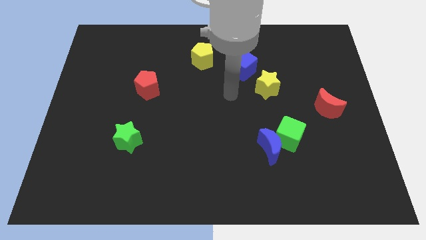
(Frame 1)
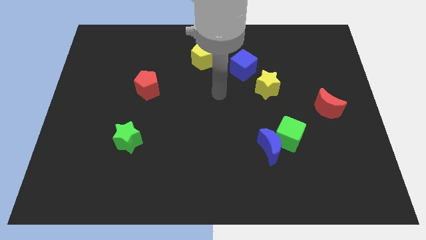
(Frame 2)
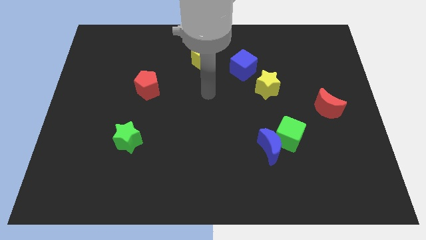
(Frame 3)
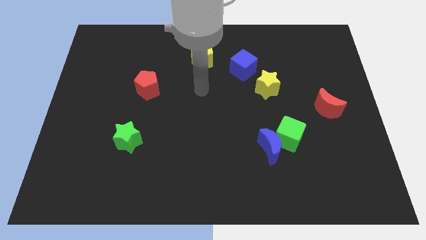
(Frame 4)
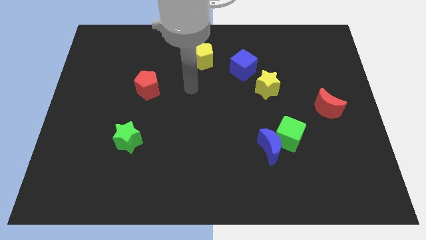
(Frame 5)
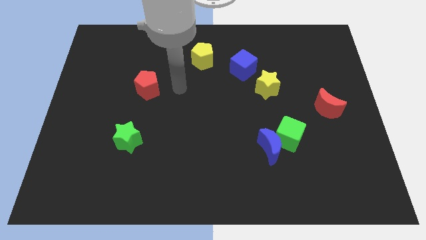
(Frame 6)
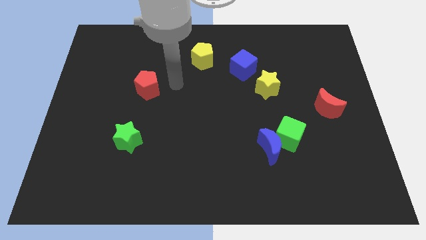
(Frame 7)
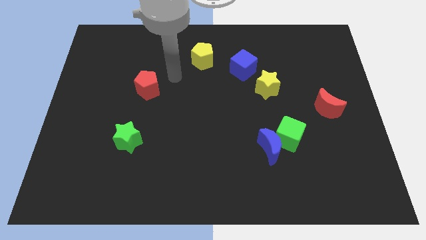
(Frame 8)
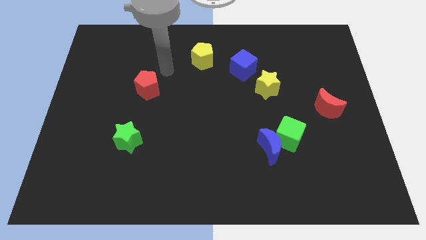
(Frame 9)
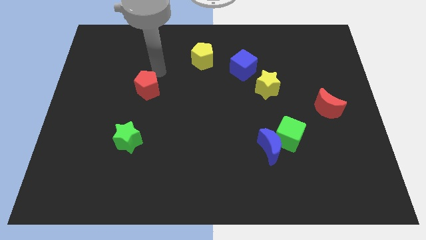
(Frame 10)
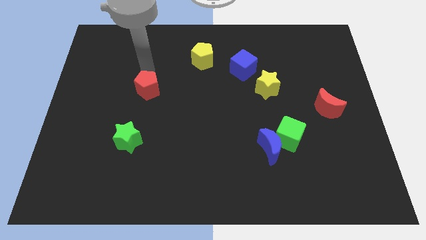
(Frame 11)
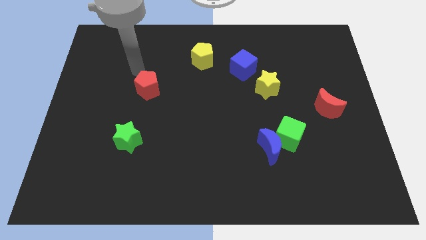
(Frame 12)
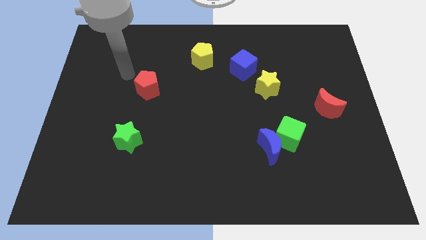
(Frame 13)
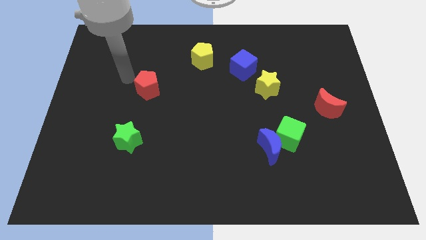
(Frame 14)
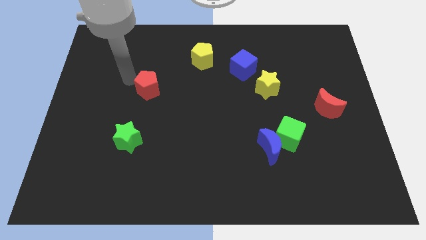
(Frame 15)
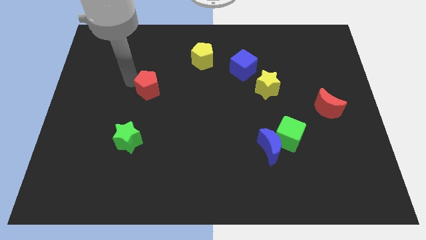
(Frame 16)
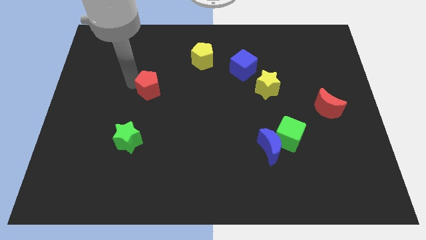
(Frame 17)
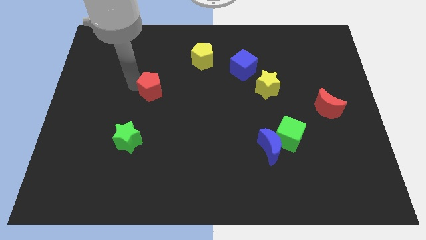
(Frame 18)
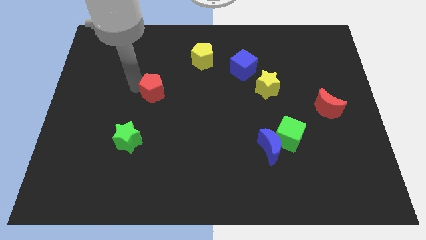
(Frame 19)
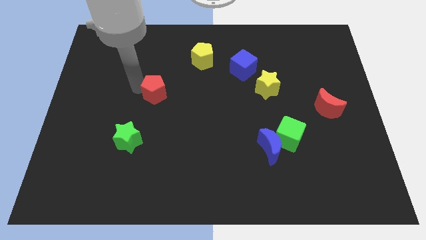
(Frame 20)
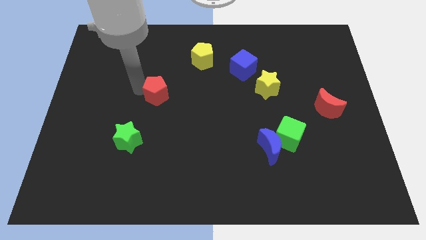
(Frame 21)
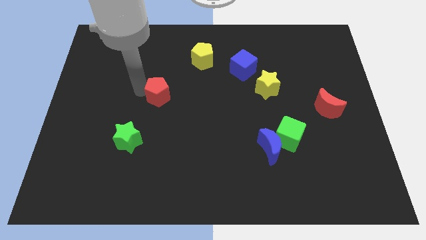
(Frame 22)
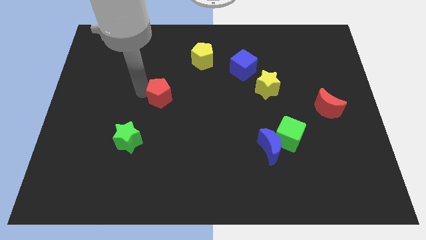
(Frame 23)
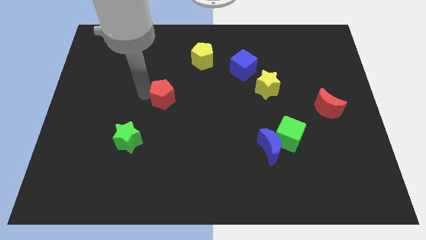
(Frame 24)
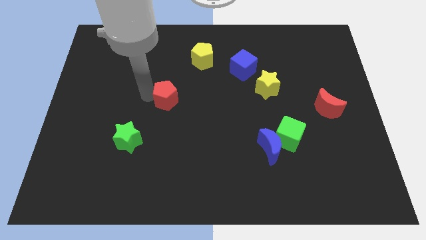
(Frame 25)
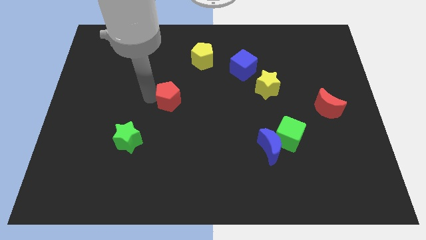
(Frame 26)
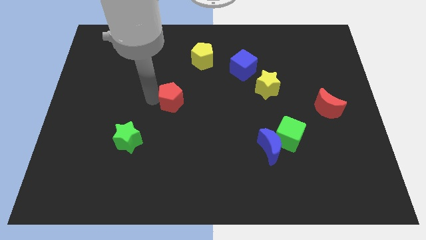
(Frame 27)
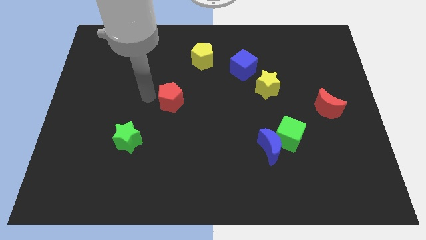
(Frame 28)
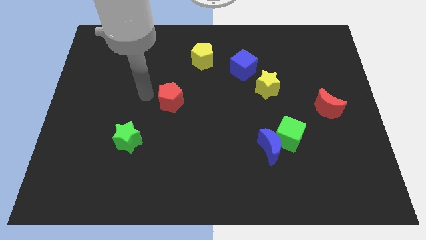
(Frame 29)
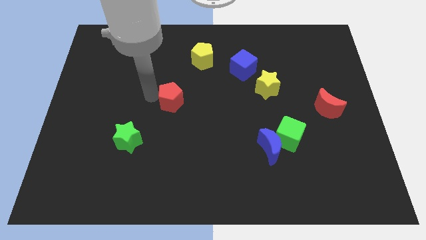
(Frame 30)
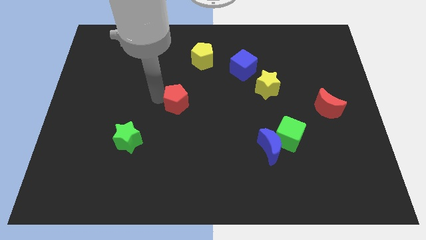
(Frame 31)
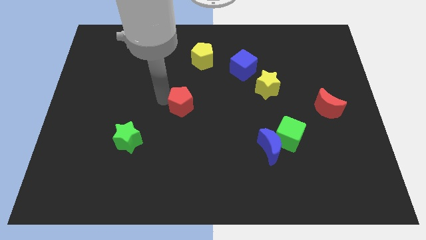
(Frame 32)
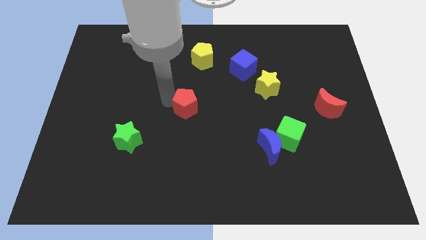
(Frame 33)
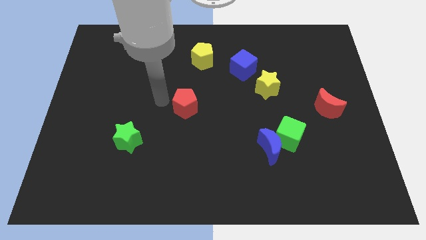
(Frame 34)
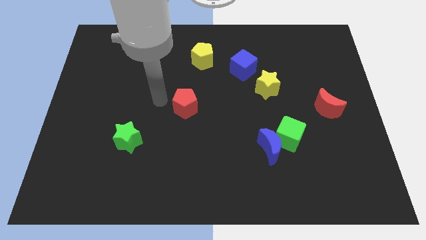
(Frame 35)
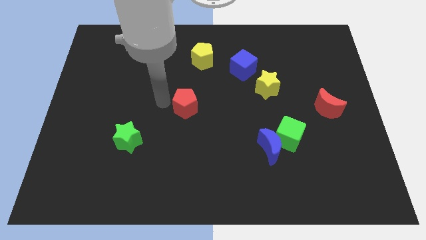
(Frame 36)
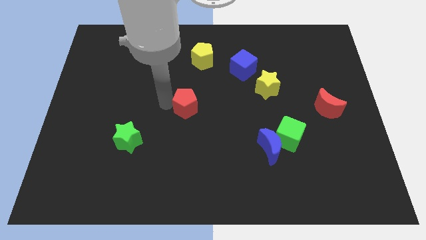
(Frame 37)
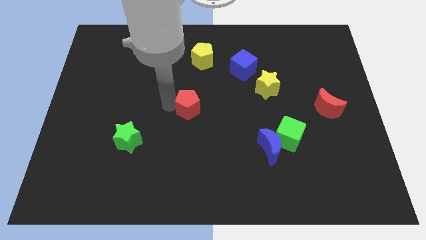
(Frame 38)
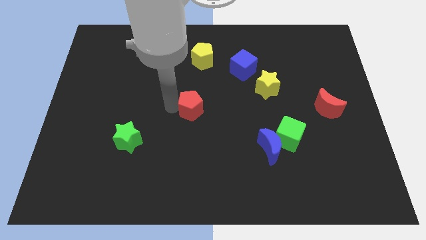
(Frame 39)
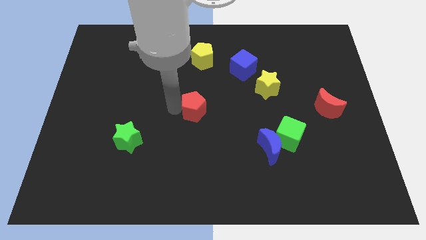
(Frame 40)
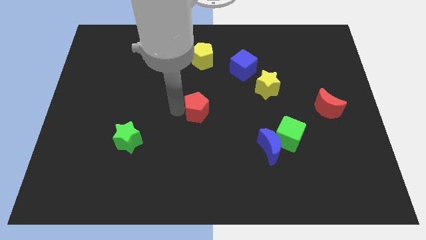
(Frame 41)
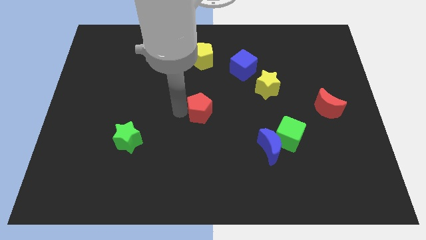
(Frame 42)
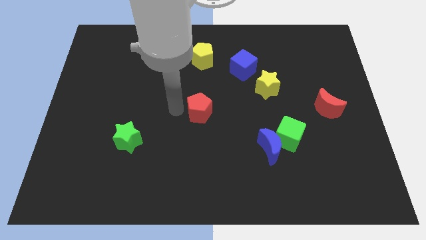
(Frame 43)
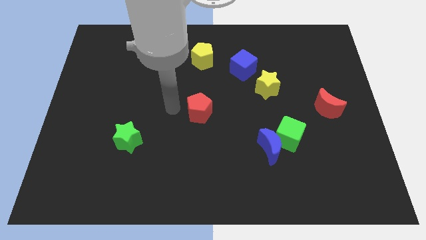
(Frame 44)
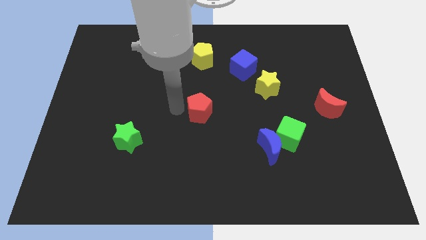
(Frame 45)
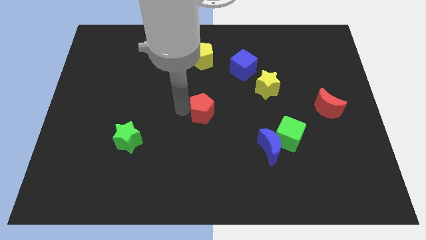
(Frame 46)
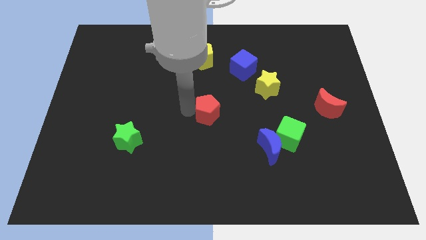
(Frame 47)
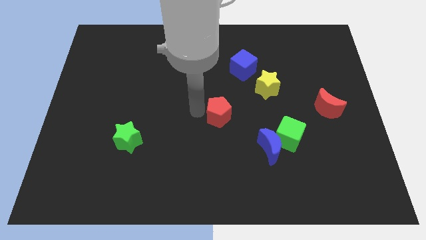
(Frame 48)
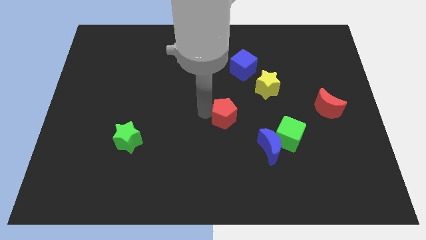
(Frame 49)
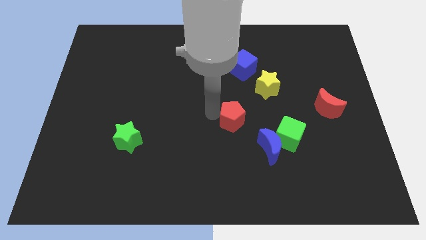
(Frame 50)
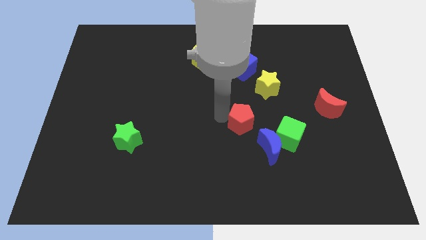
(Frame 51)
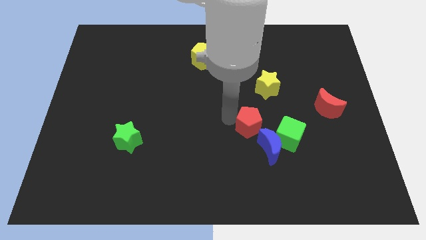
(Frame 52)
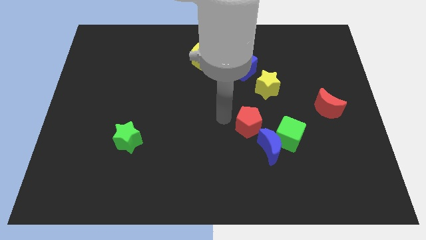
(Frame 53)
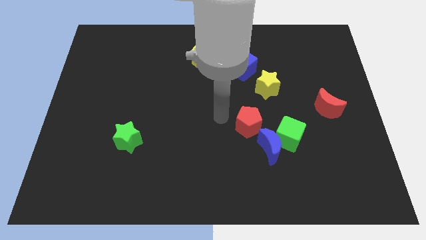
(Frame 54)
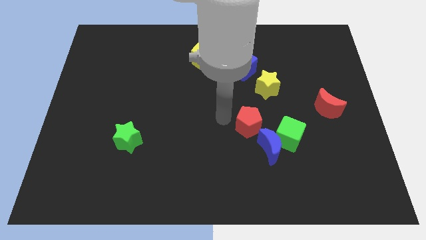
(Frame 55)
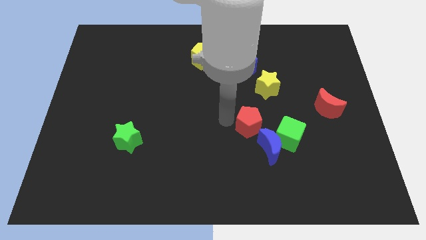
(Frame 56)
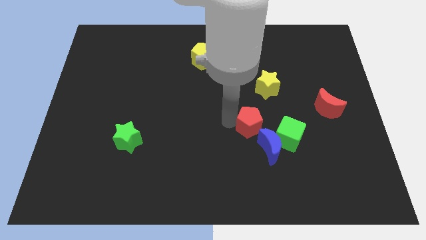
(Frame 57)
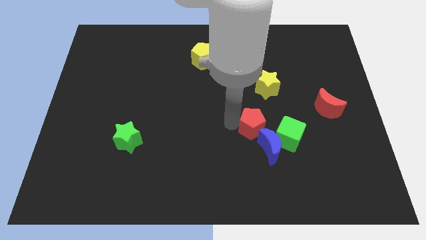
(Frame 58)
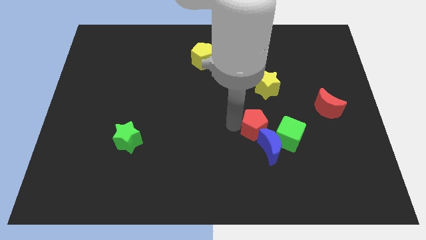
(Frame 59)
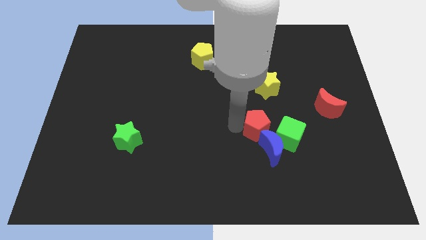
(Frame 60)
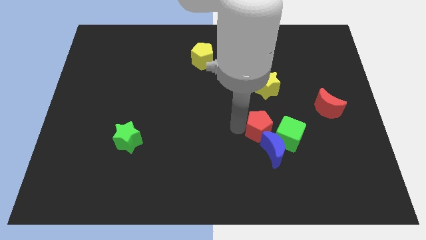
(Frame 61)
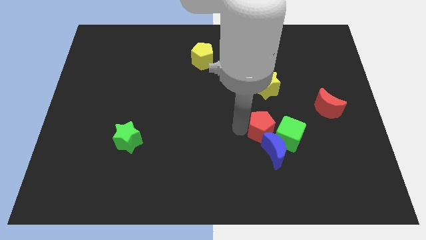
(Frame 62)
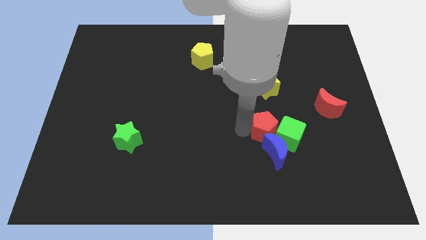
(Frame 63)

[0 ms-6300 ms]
push the red pentagon close to the green cube
